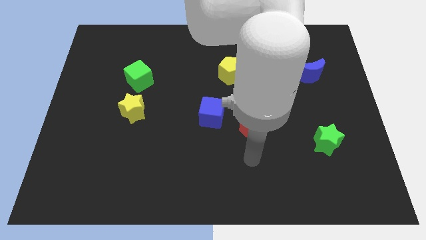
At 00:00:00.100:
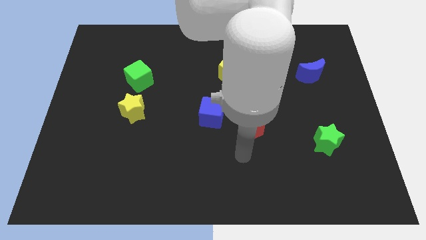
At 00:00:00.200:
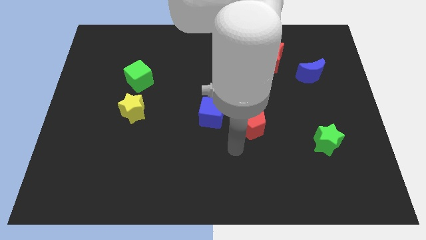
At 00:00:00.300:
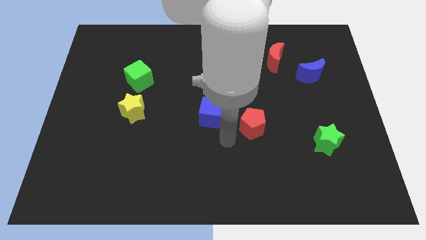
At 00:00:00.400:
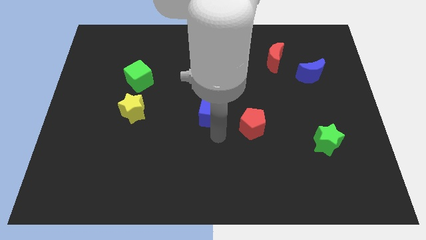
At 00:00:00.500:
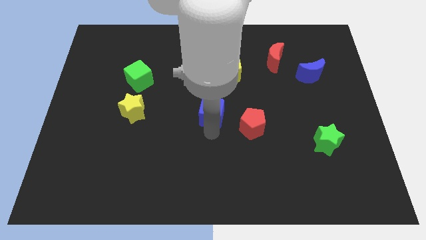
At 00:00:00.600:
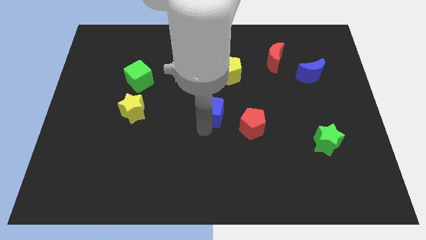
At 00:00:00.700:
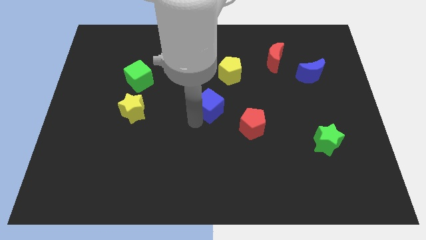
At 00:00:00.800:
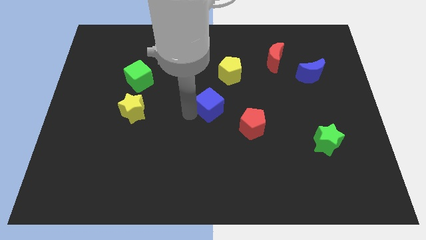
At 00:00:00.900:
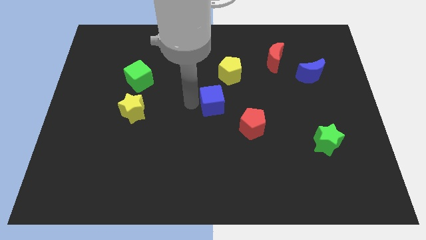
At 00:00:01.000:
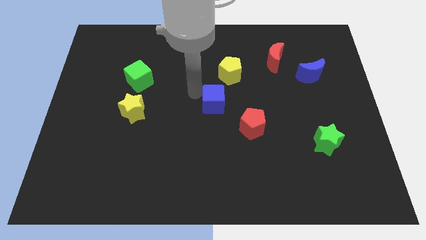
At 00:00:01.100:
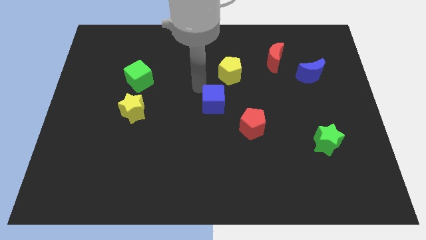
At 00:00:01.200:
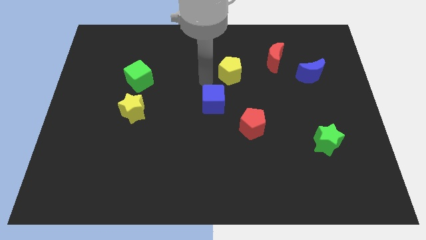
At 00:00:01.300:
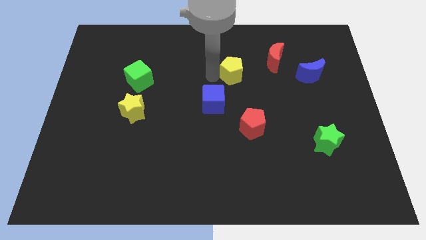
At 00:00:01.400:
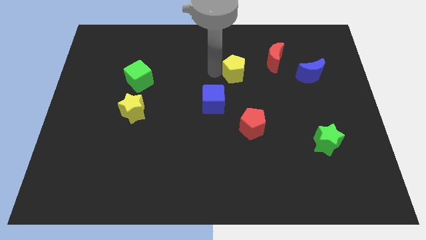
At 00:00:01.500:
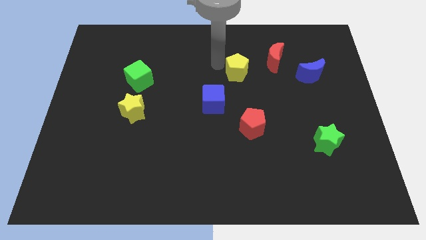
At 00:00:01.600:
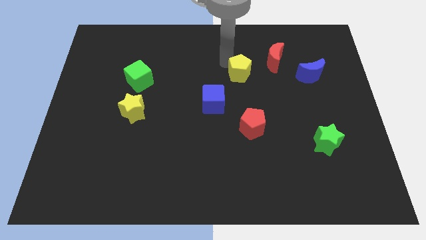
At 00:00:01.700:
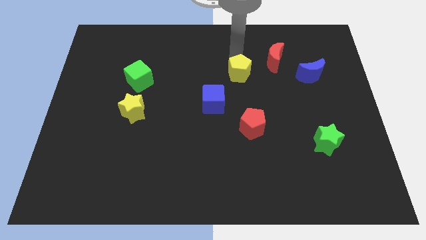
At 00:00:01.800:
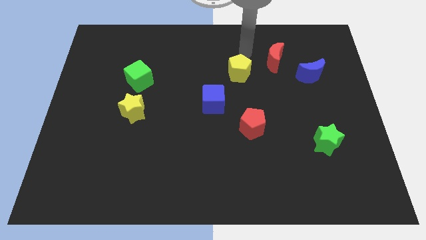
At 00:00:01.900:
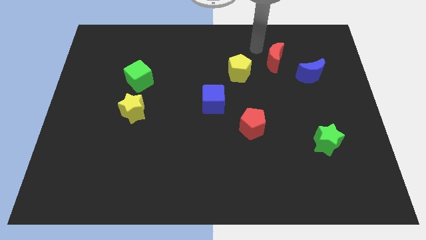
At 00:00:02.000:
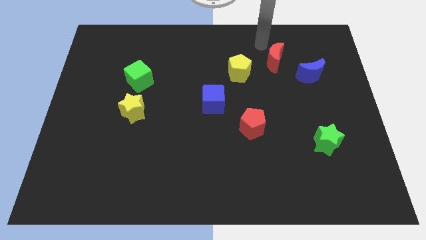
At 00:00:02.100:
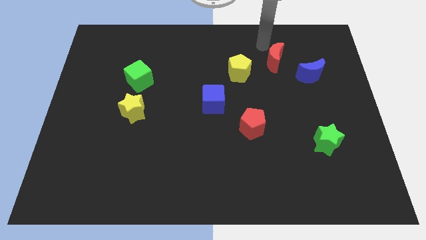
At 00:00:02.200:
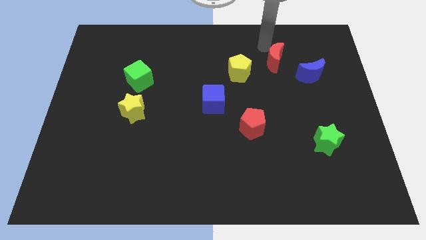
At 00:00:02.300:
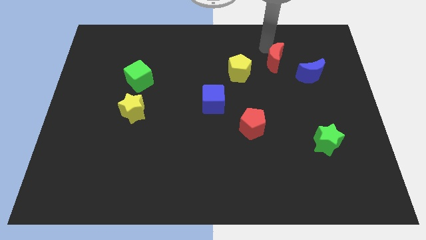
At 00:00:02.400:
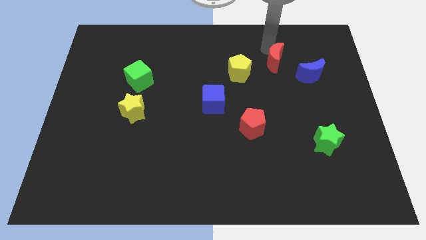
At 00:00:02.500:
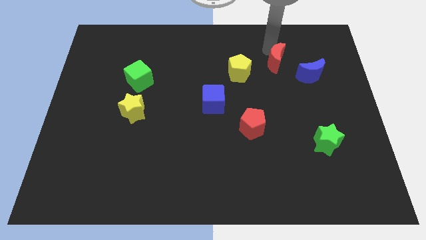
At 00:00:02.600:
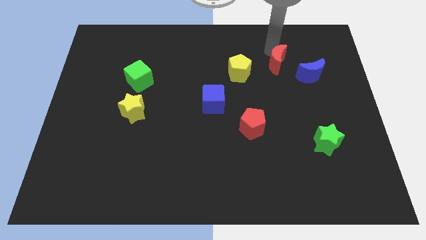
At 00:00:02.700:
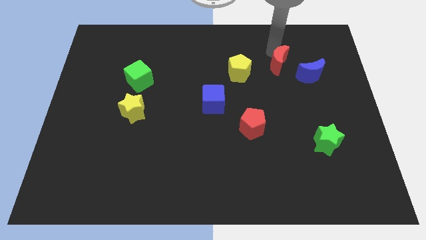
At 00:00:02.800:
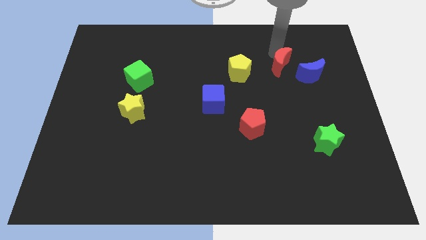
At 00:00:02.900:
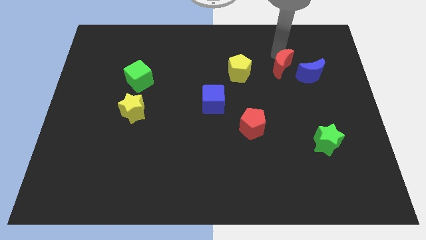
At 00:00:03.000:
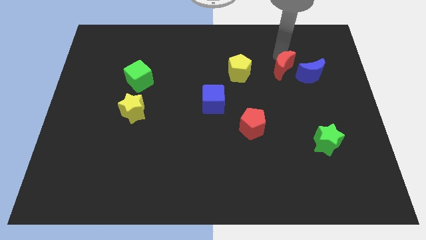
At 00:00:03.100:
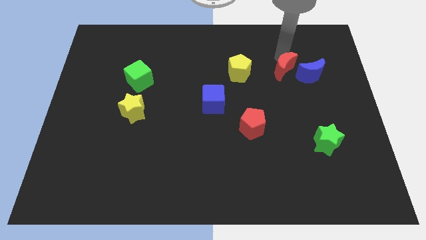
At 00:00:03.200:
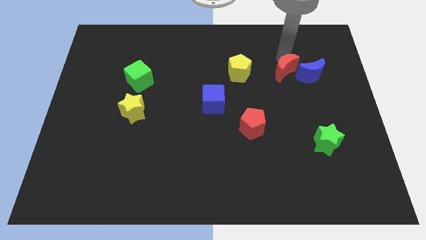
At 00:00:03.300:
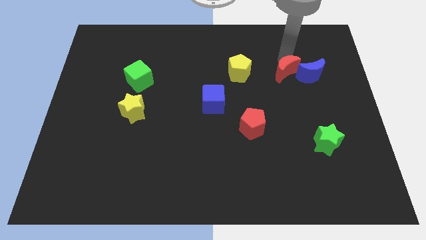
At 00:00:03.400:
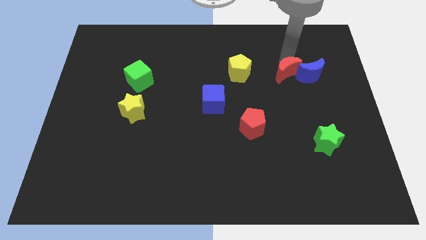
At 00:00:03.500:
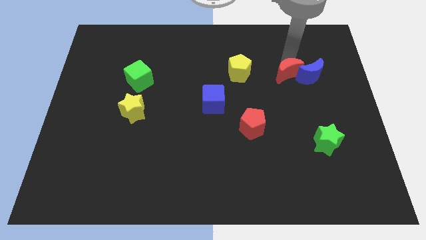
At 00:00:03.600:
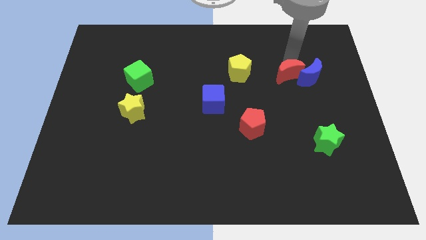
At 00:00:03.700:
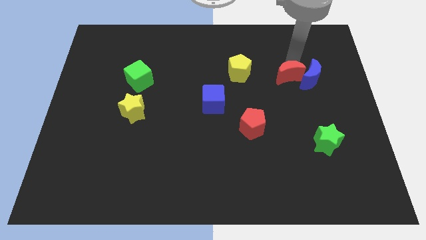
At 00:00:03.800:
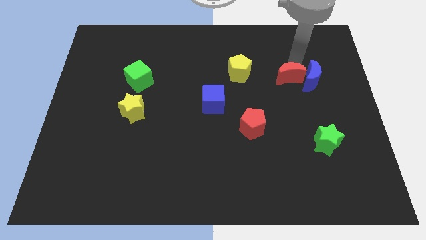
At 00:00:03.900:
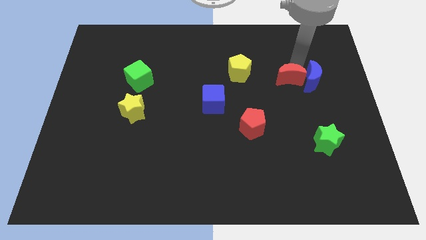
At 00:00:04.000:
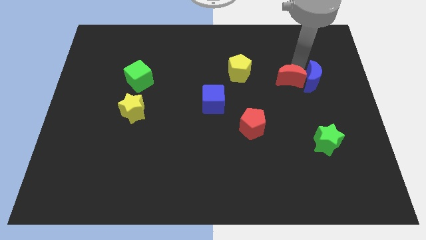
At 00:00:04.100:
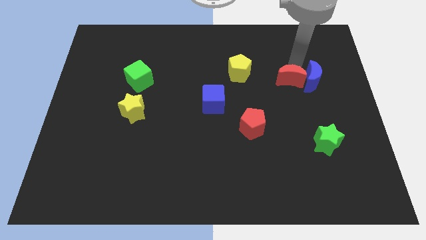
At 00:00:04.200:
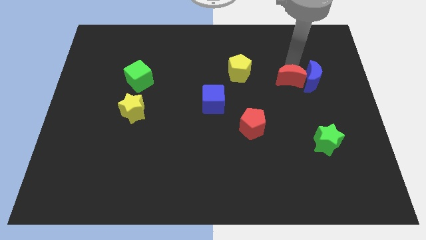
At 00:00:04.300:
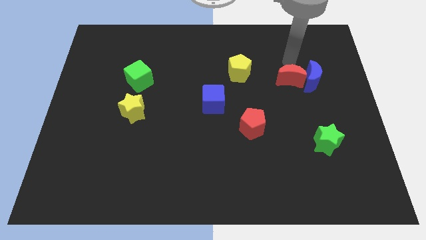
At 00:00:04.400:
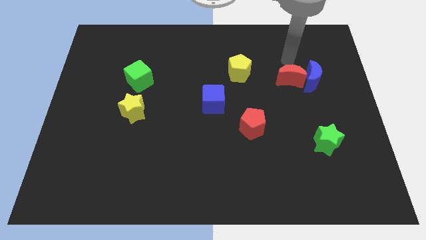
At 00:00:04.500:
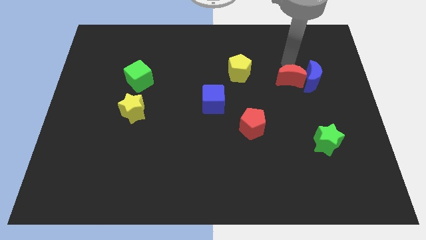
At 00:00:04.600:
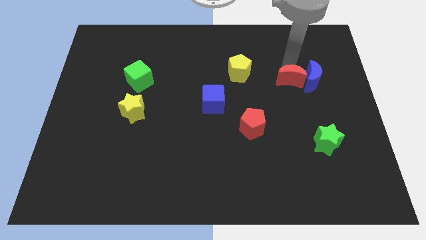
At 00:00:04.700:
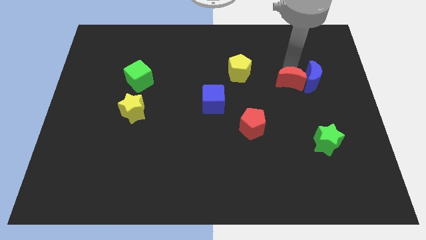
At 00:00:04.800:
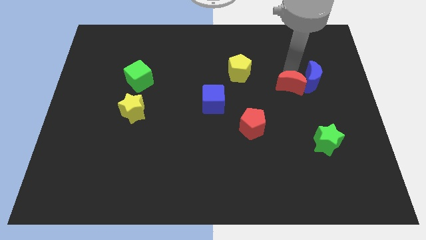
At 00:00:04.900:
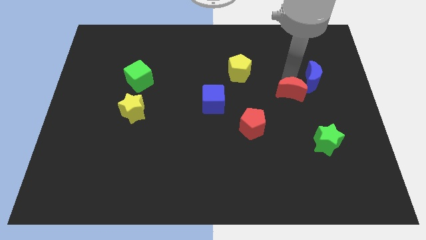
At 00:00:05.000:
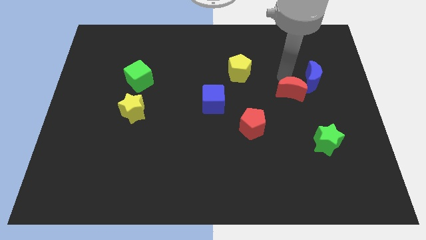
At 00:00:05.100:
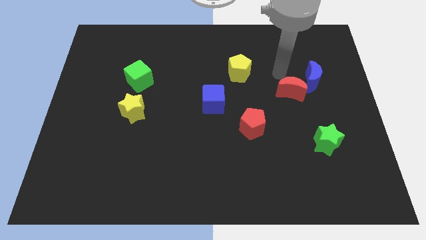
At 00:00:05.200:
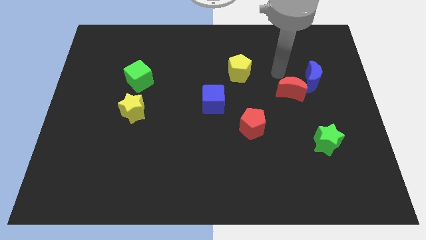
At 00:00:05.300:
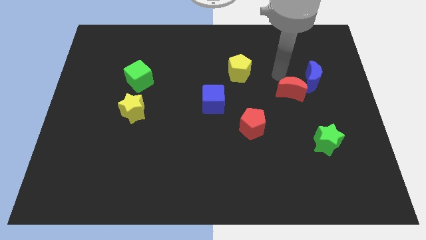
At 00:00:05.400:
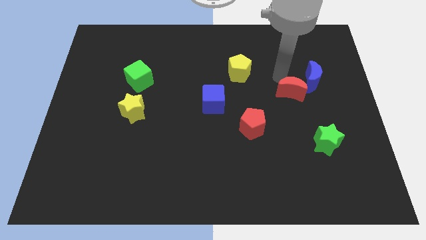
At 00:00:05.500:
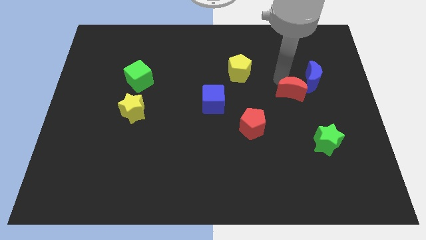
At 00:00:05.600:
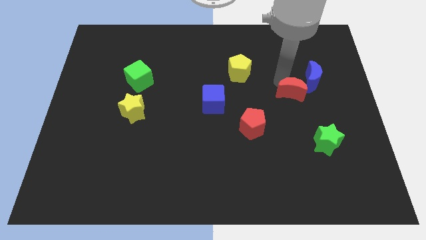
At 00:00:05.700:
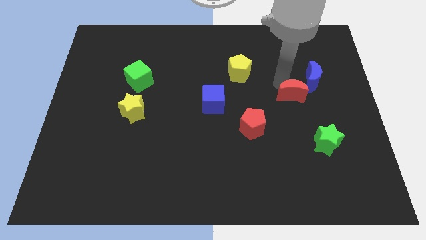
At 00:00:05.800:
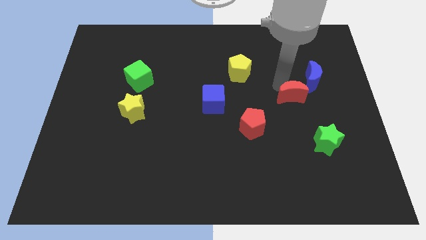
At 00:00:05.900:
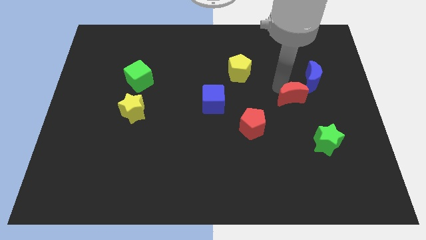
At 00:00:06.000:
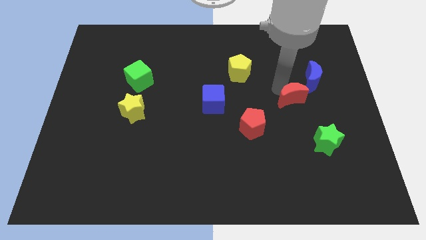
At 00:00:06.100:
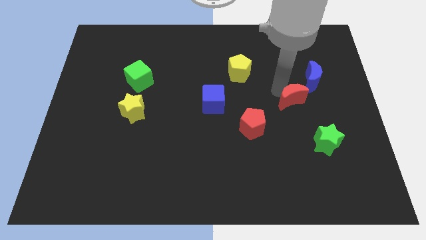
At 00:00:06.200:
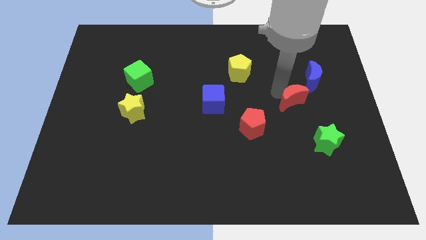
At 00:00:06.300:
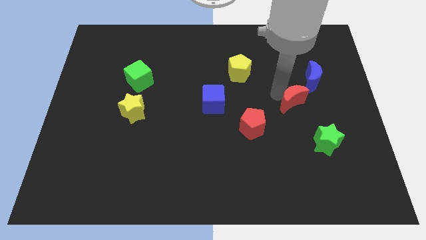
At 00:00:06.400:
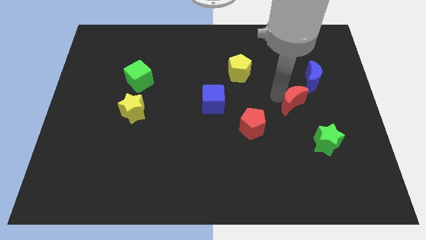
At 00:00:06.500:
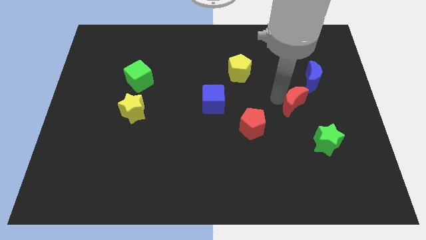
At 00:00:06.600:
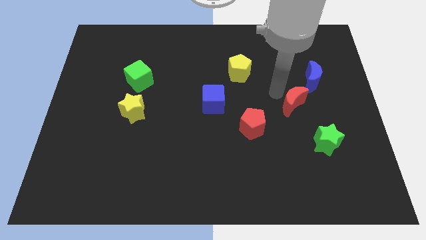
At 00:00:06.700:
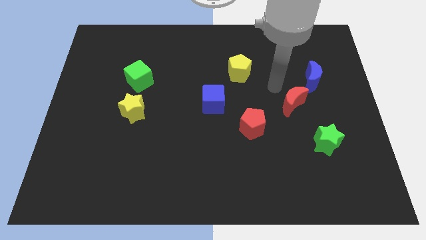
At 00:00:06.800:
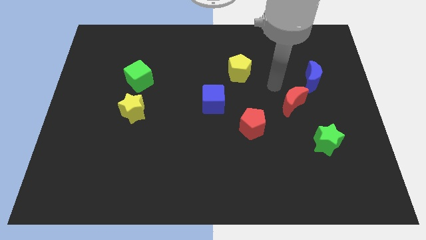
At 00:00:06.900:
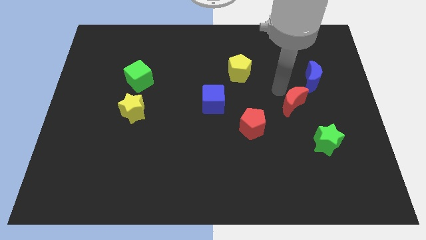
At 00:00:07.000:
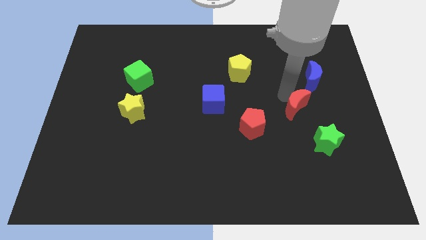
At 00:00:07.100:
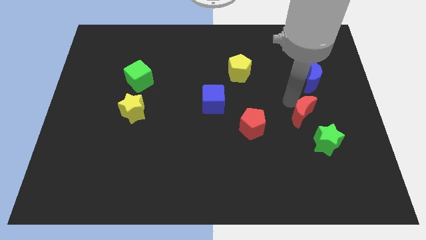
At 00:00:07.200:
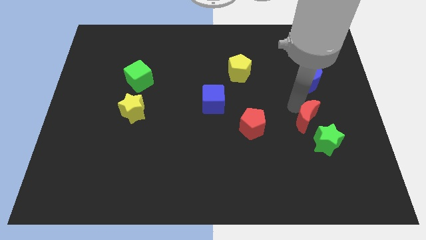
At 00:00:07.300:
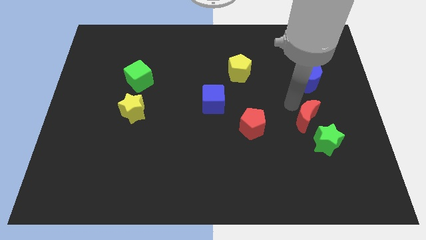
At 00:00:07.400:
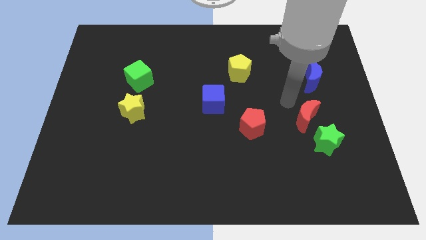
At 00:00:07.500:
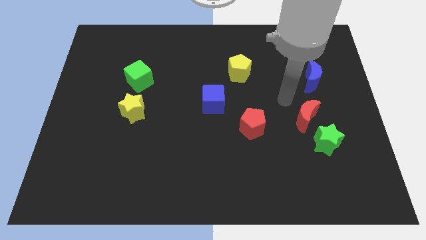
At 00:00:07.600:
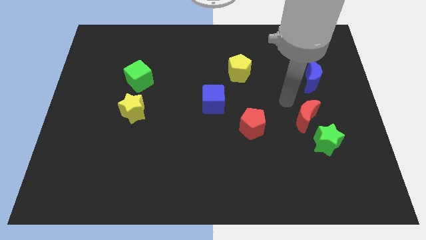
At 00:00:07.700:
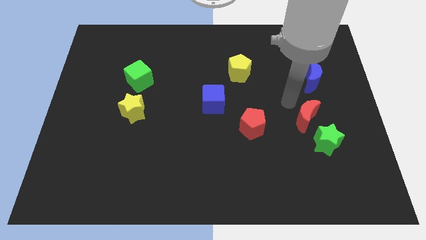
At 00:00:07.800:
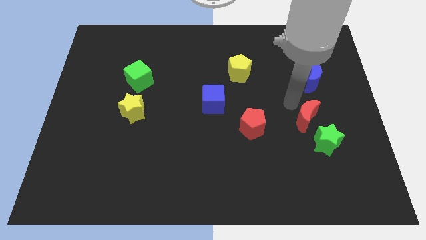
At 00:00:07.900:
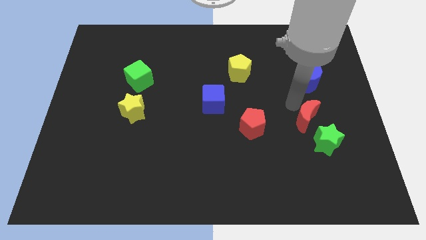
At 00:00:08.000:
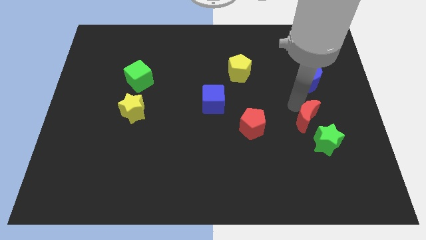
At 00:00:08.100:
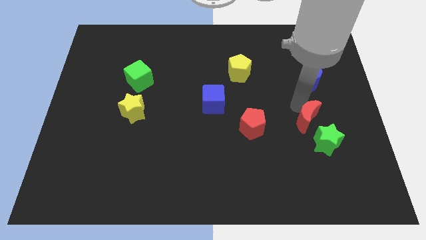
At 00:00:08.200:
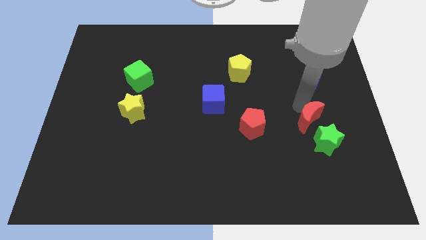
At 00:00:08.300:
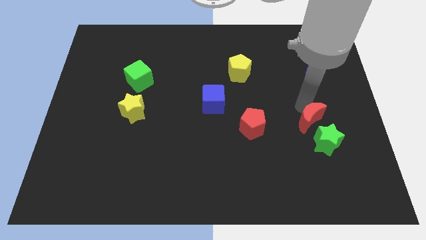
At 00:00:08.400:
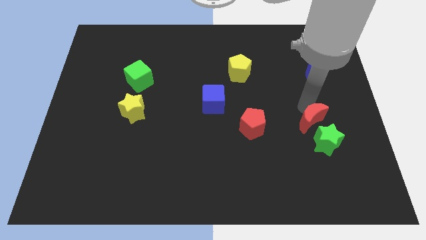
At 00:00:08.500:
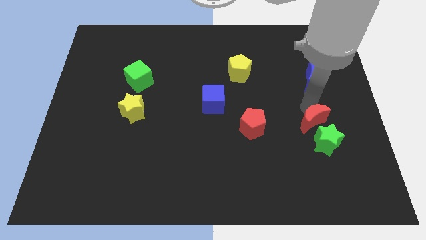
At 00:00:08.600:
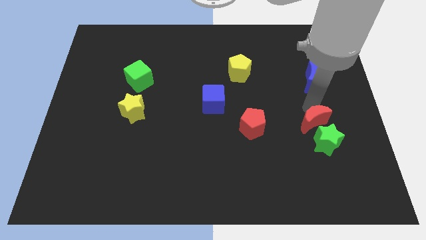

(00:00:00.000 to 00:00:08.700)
slide the red moon next to the green star
